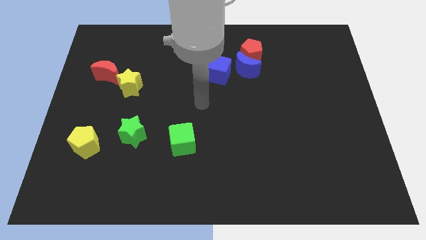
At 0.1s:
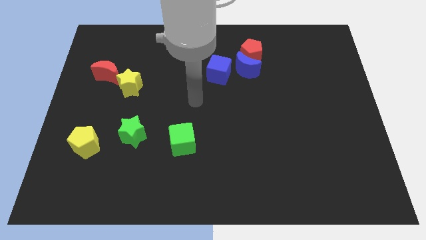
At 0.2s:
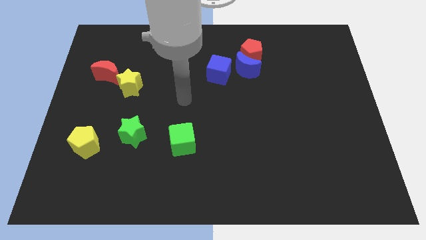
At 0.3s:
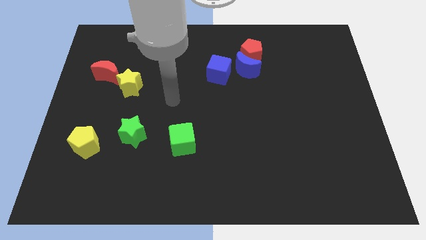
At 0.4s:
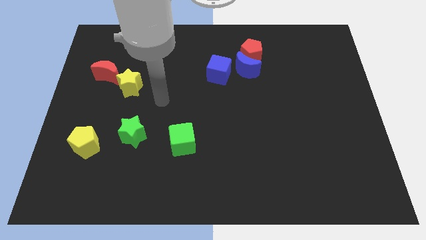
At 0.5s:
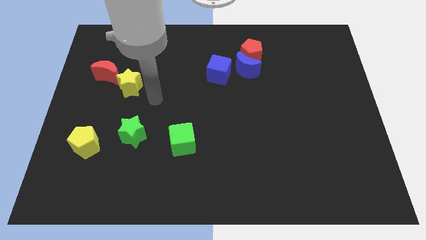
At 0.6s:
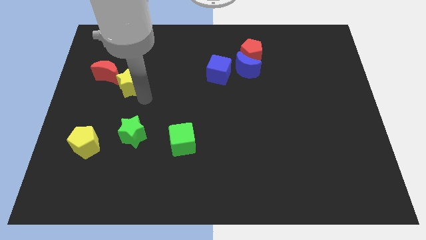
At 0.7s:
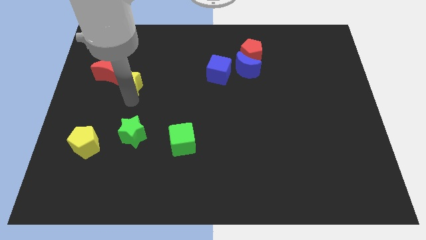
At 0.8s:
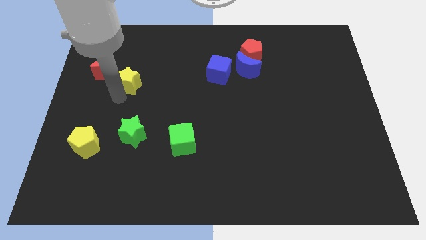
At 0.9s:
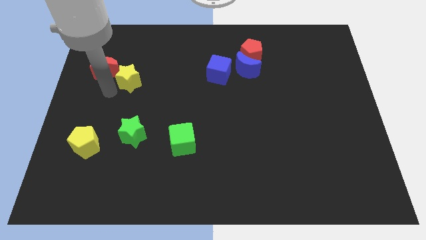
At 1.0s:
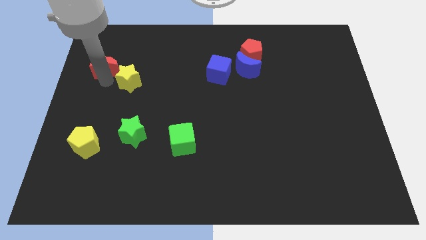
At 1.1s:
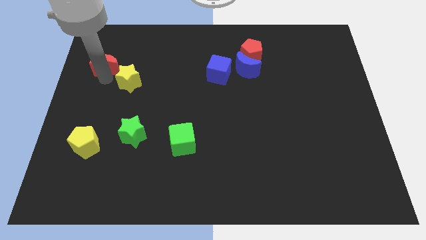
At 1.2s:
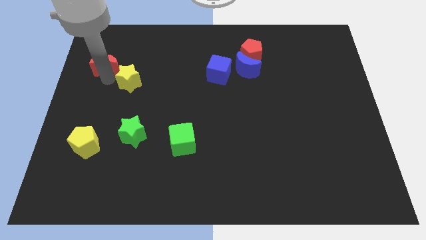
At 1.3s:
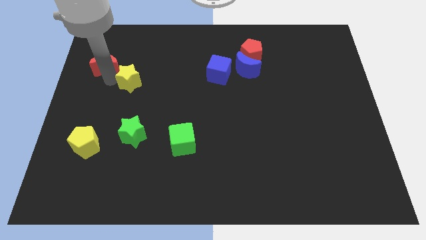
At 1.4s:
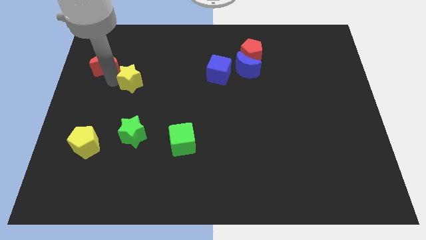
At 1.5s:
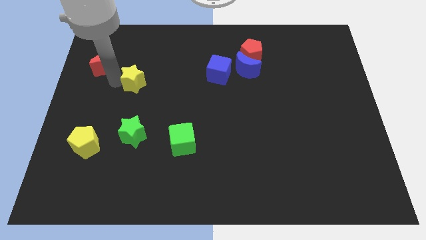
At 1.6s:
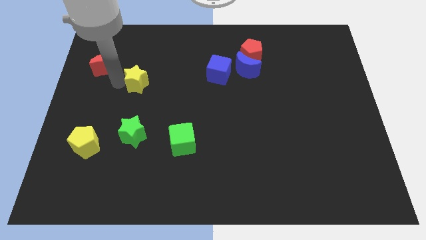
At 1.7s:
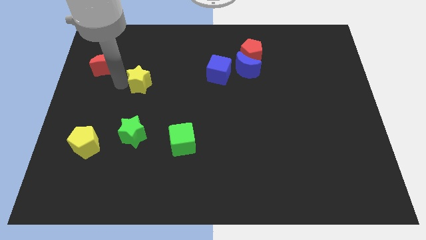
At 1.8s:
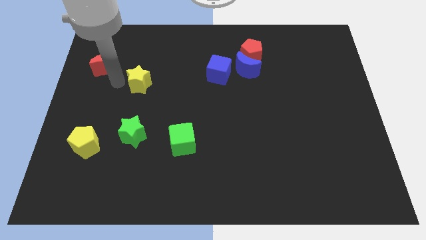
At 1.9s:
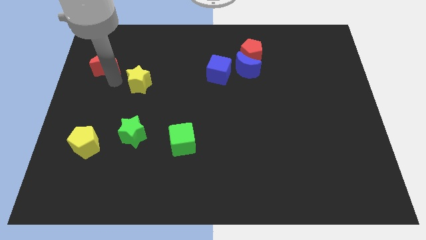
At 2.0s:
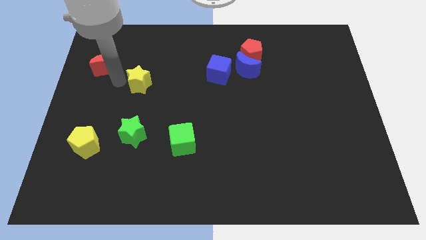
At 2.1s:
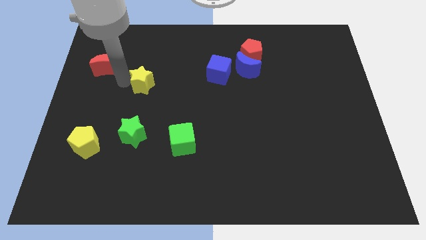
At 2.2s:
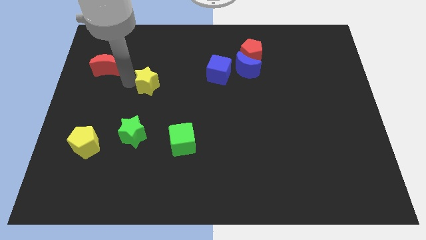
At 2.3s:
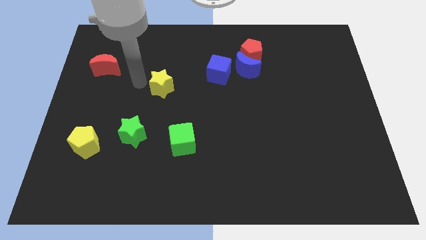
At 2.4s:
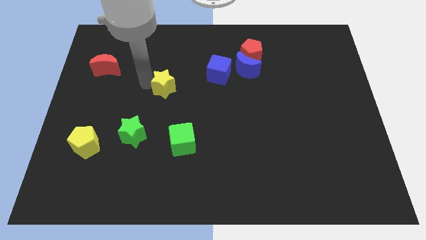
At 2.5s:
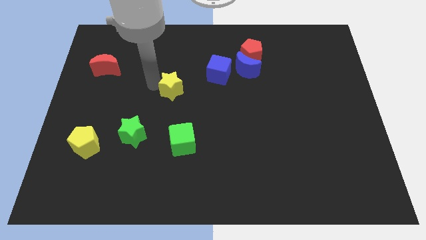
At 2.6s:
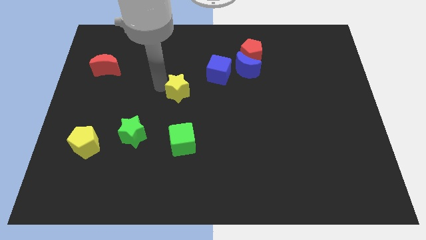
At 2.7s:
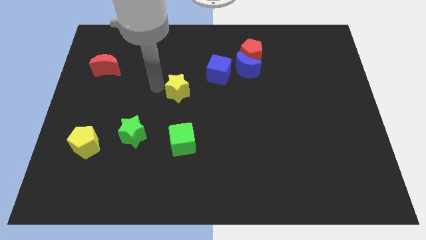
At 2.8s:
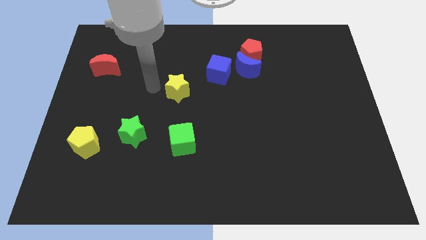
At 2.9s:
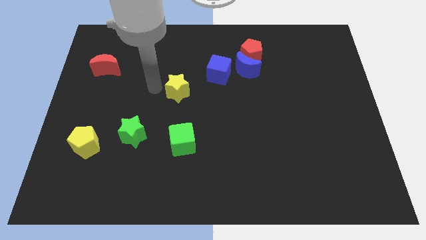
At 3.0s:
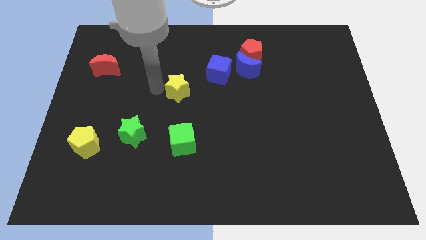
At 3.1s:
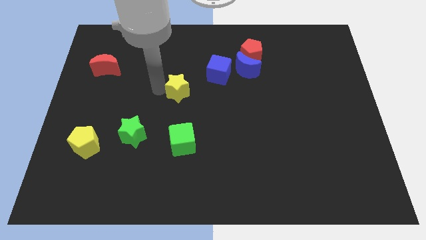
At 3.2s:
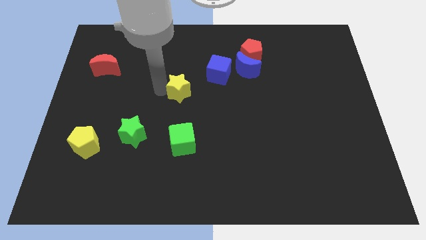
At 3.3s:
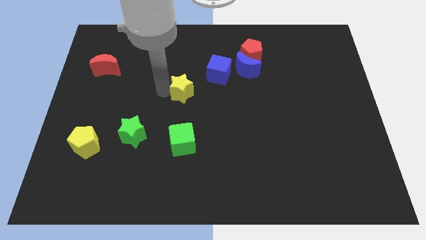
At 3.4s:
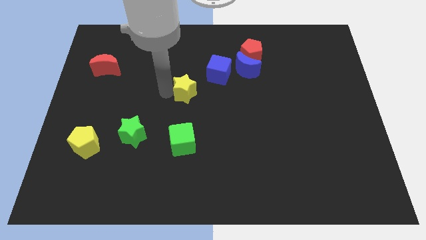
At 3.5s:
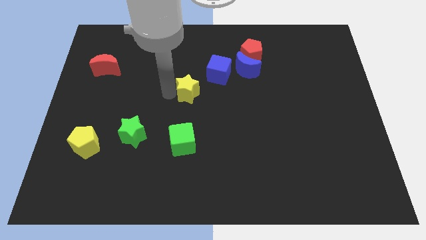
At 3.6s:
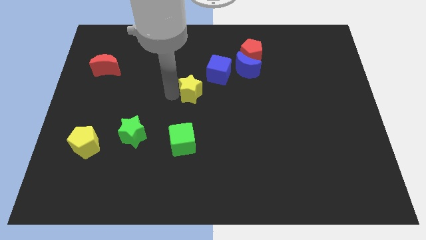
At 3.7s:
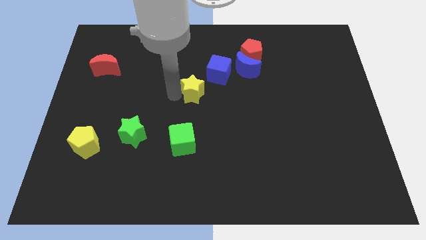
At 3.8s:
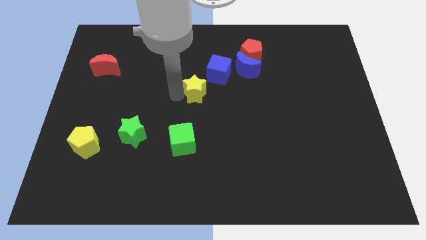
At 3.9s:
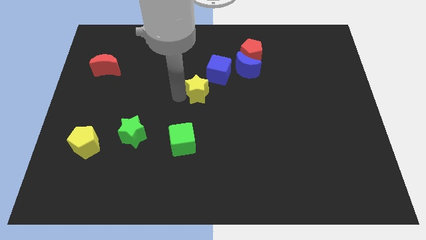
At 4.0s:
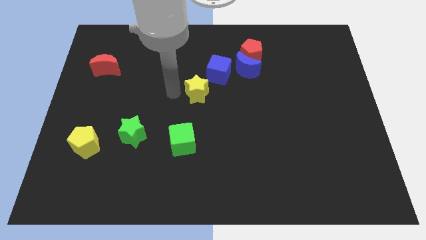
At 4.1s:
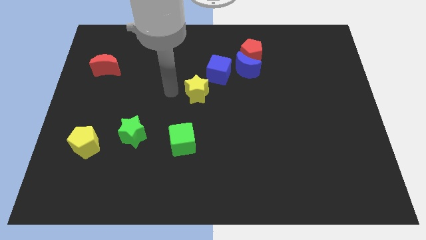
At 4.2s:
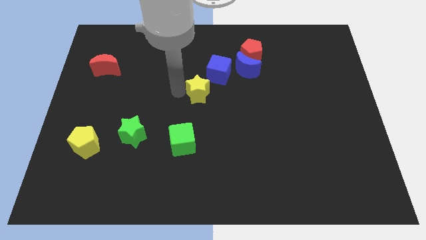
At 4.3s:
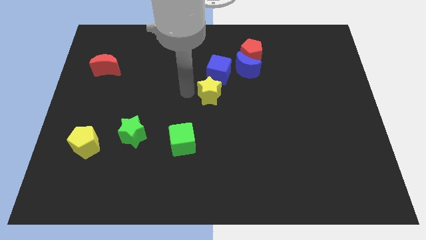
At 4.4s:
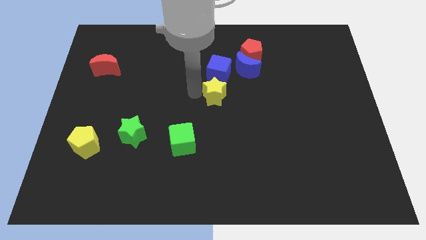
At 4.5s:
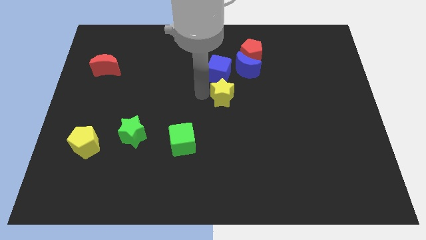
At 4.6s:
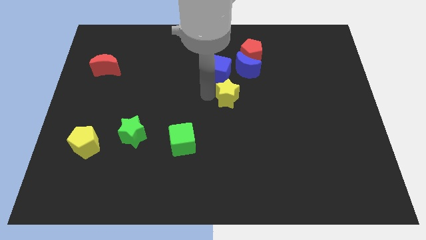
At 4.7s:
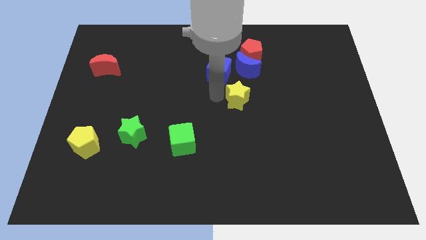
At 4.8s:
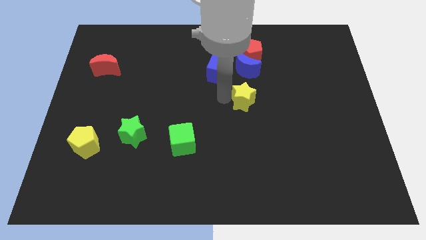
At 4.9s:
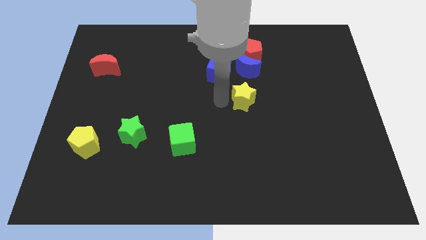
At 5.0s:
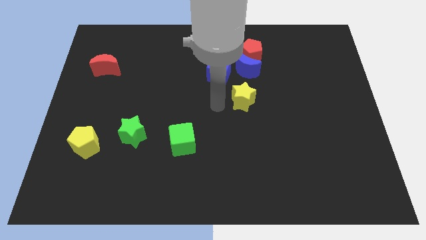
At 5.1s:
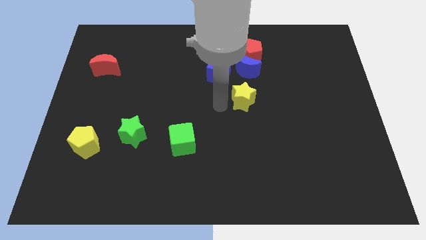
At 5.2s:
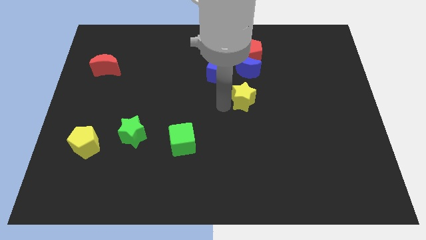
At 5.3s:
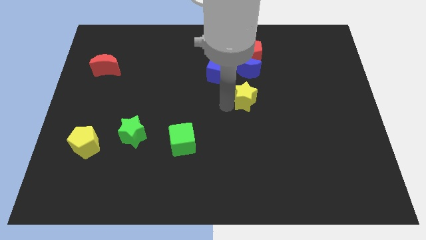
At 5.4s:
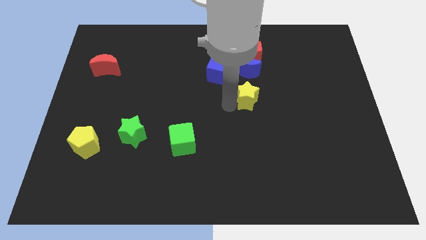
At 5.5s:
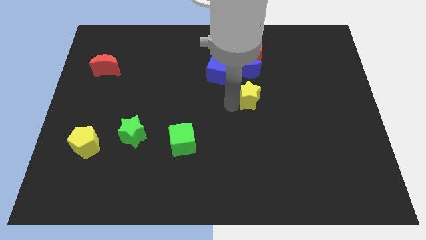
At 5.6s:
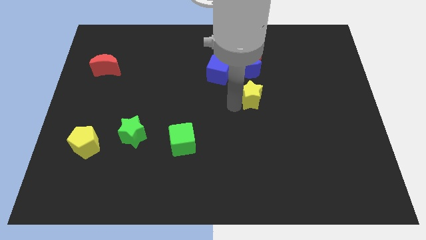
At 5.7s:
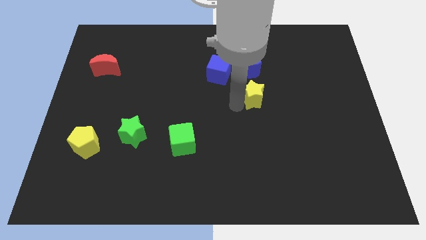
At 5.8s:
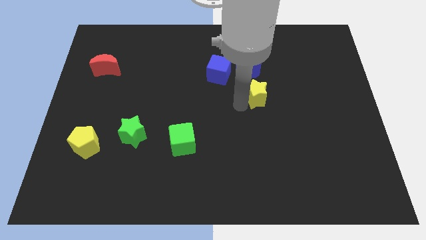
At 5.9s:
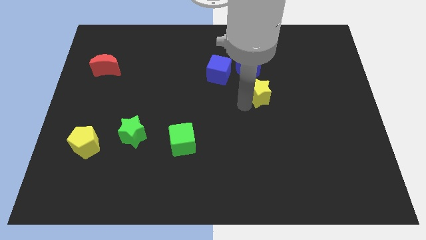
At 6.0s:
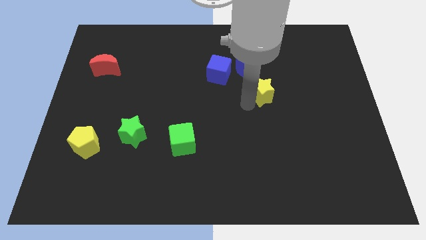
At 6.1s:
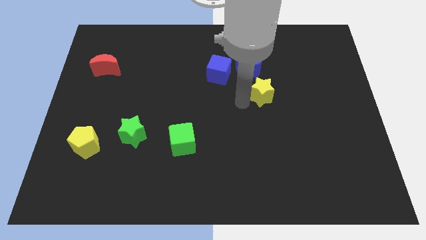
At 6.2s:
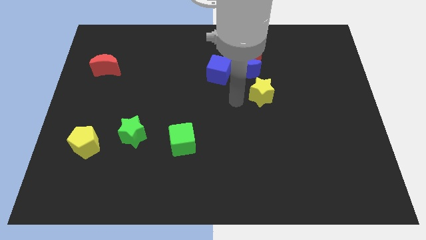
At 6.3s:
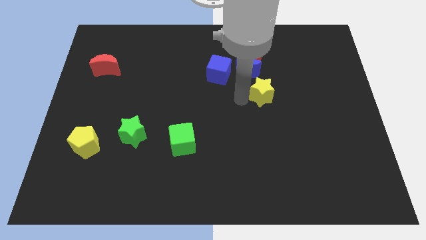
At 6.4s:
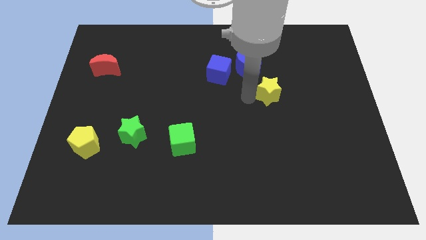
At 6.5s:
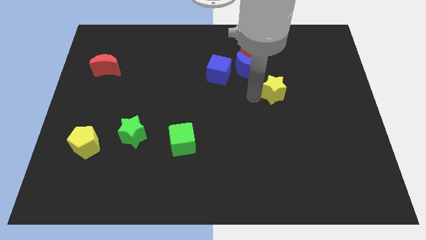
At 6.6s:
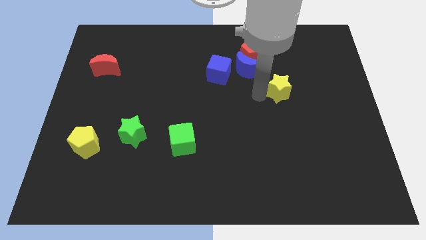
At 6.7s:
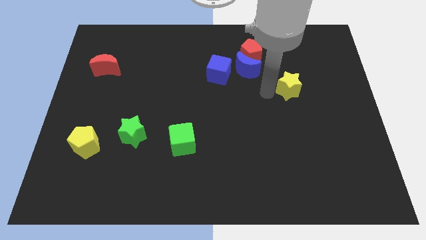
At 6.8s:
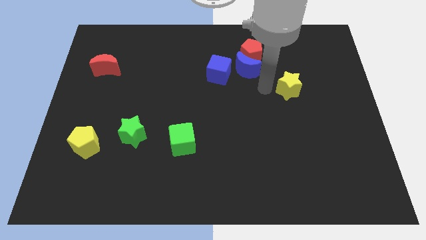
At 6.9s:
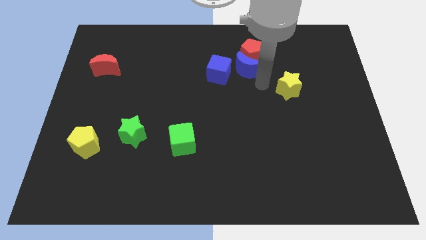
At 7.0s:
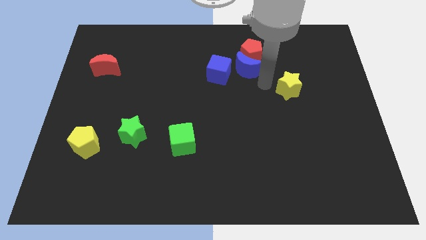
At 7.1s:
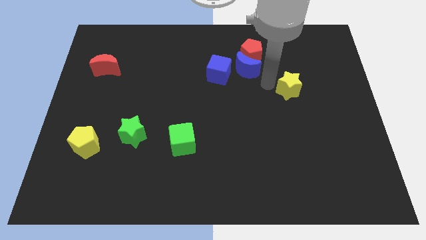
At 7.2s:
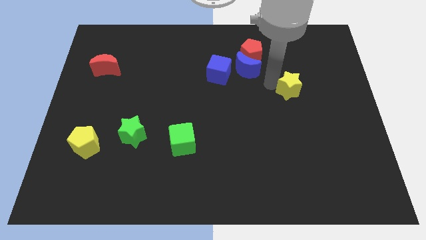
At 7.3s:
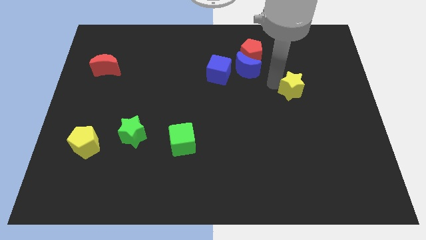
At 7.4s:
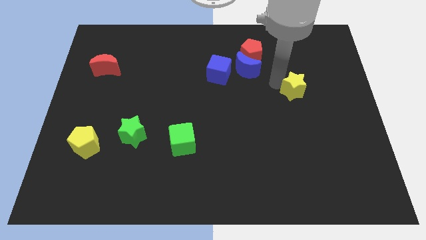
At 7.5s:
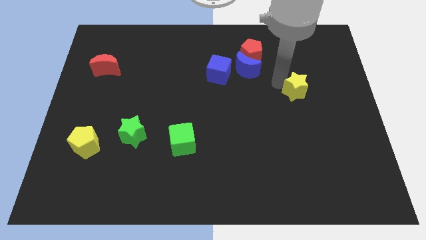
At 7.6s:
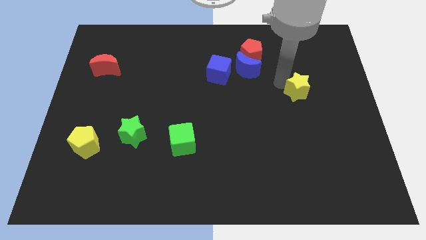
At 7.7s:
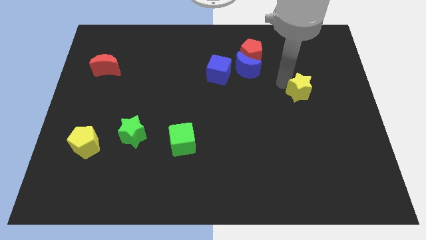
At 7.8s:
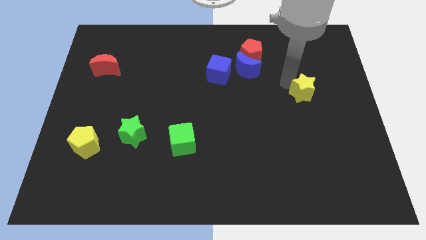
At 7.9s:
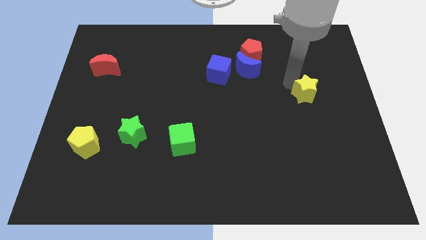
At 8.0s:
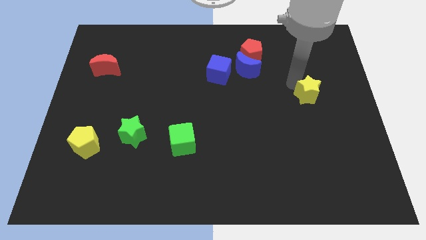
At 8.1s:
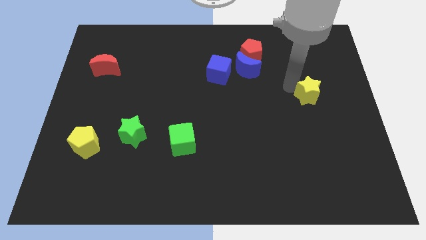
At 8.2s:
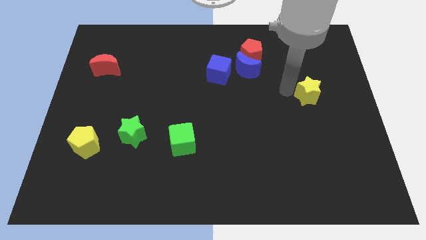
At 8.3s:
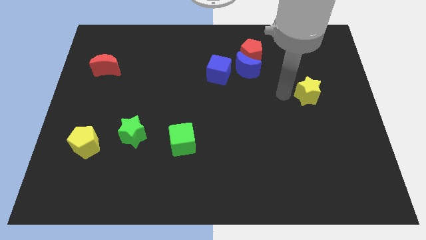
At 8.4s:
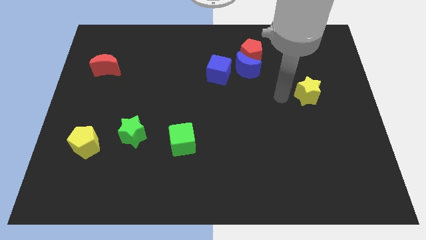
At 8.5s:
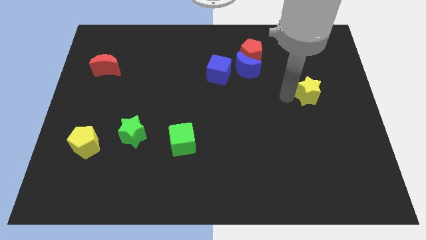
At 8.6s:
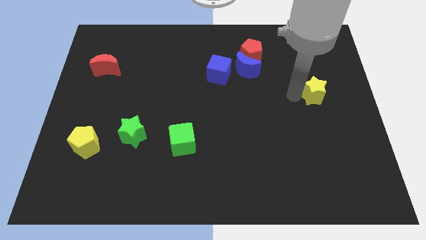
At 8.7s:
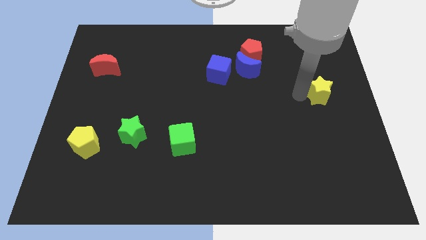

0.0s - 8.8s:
push the yellow star to the right side
